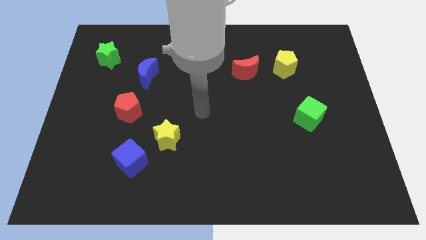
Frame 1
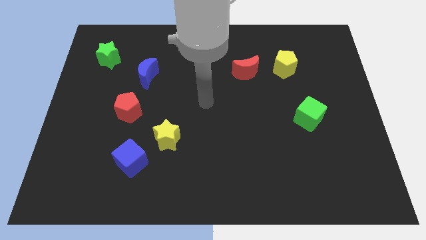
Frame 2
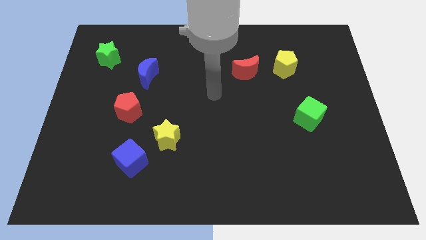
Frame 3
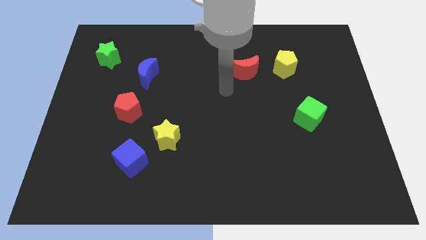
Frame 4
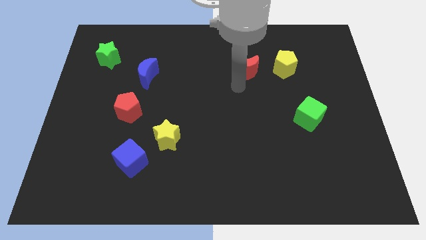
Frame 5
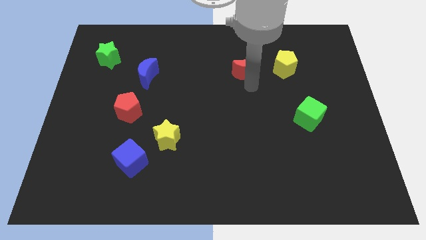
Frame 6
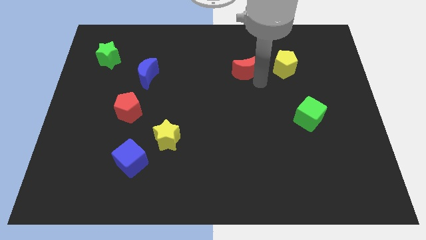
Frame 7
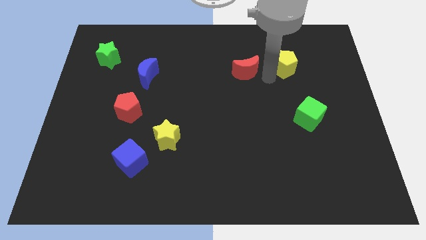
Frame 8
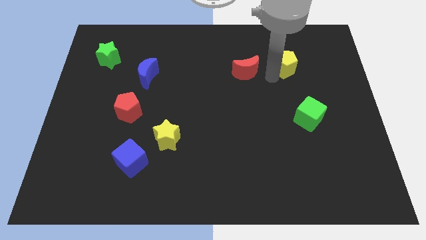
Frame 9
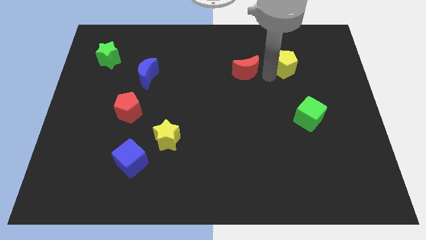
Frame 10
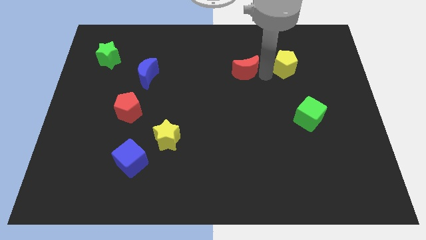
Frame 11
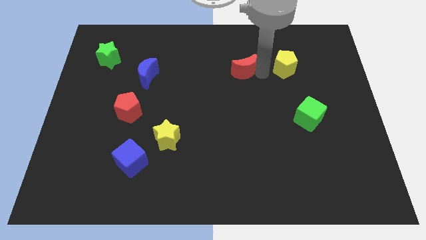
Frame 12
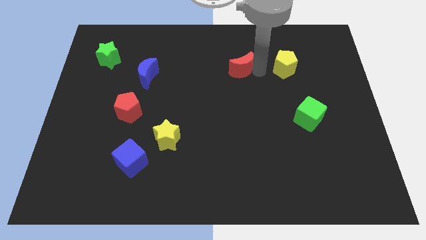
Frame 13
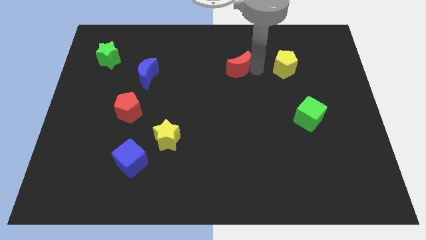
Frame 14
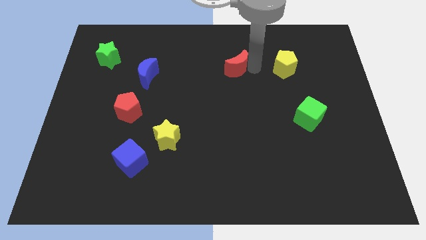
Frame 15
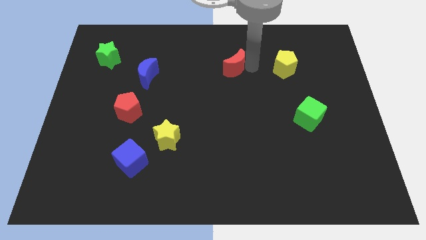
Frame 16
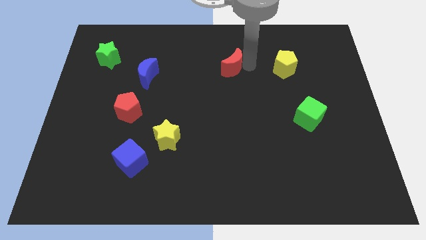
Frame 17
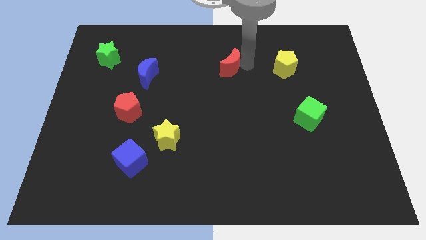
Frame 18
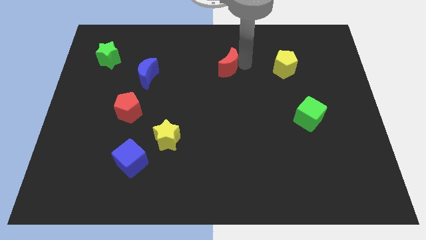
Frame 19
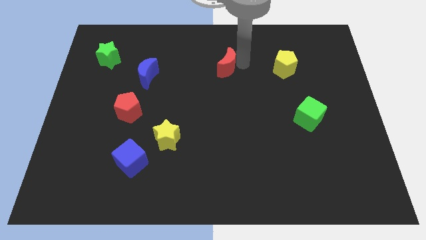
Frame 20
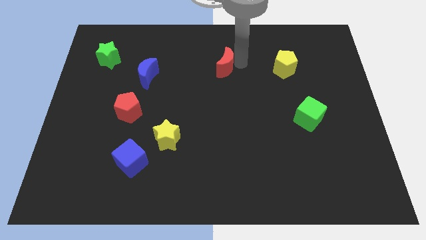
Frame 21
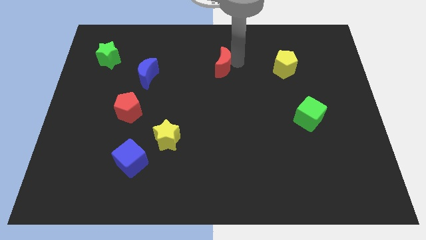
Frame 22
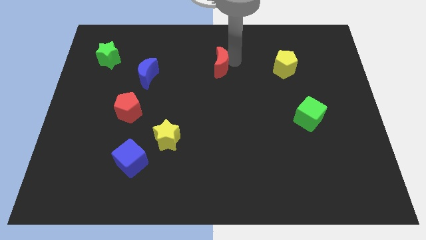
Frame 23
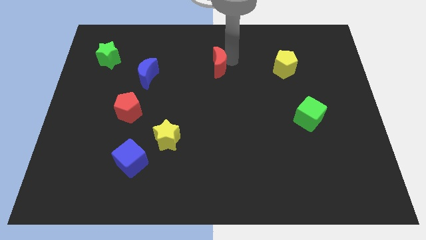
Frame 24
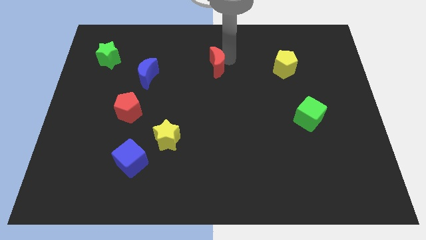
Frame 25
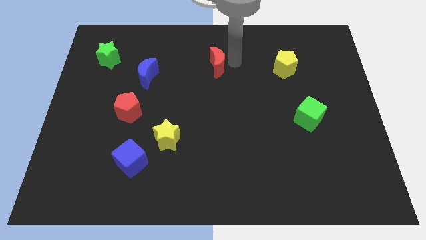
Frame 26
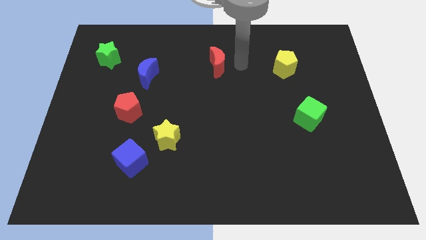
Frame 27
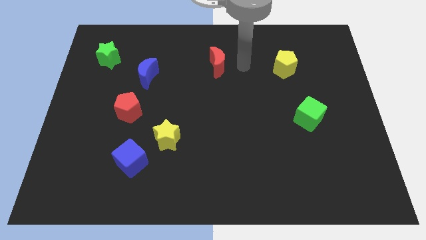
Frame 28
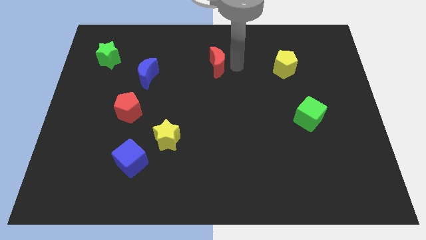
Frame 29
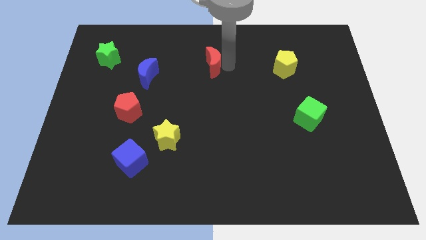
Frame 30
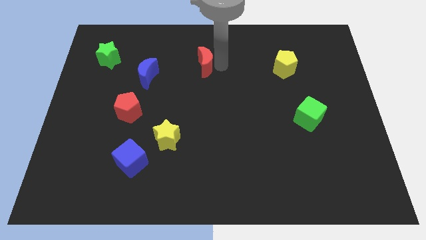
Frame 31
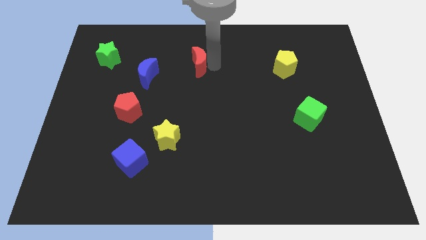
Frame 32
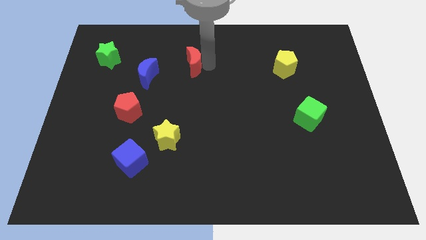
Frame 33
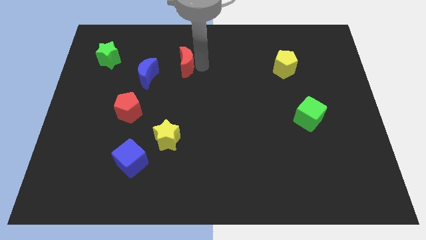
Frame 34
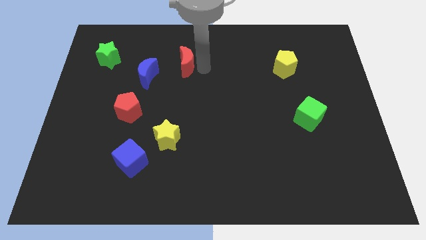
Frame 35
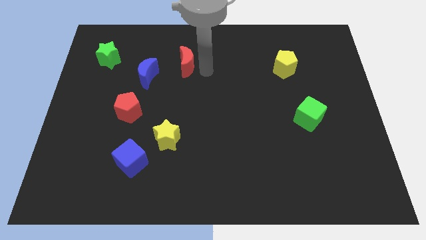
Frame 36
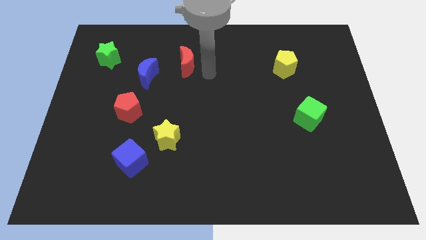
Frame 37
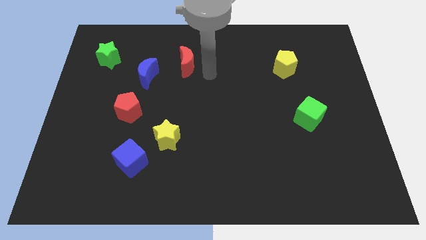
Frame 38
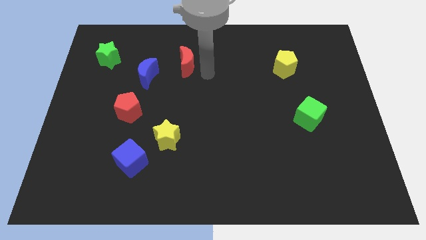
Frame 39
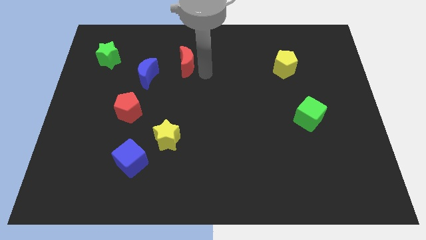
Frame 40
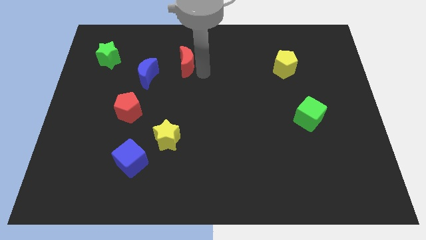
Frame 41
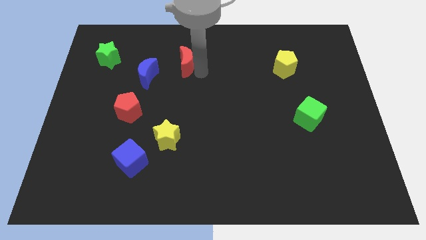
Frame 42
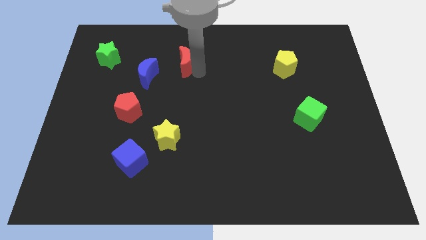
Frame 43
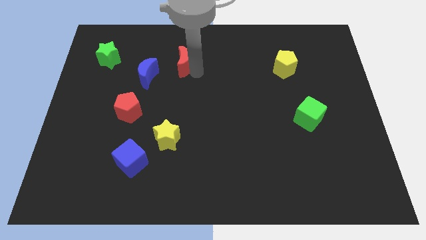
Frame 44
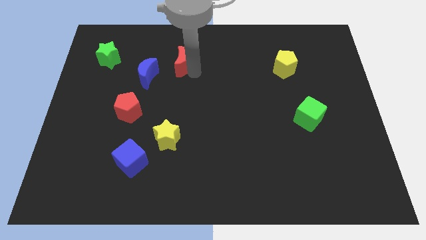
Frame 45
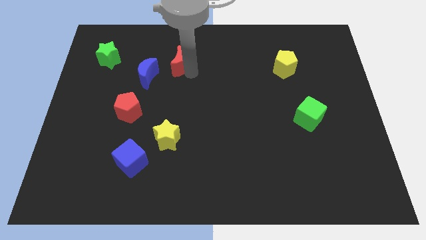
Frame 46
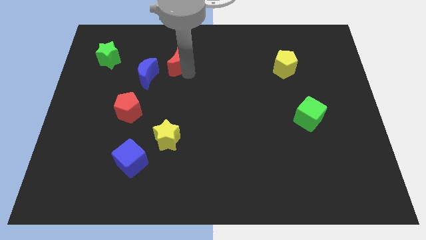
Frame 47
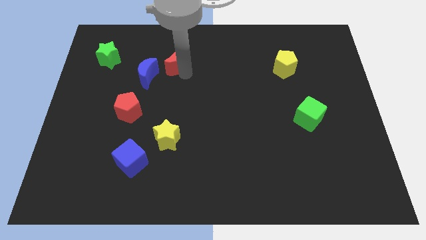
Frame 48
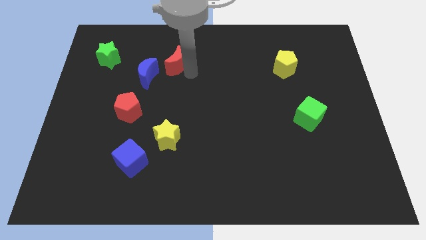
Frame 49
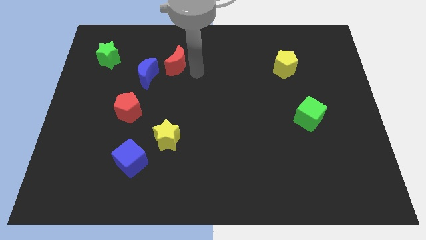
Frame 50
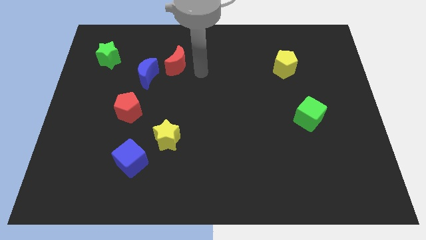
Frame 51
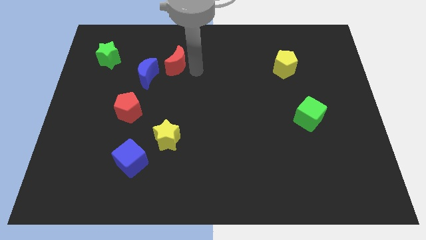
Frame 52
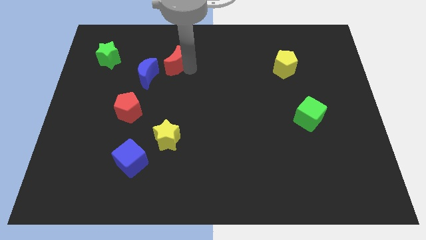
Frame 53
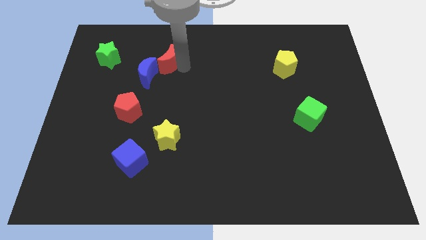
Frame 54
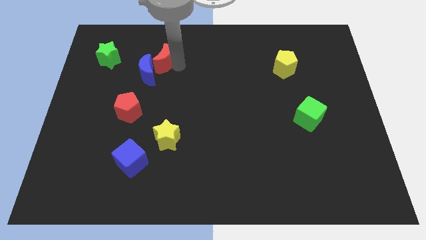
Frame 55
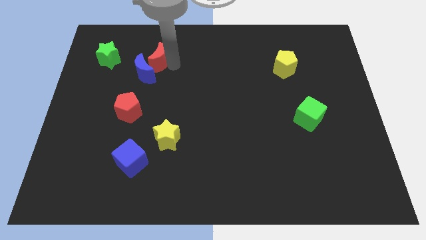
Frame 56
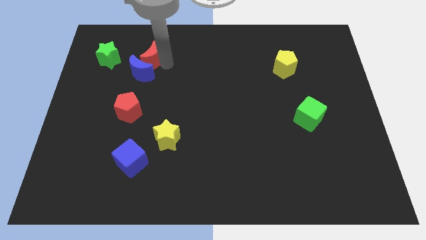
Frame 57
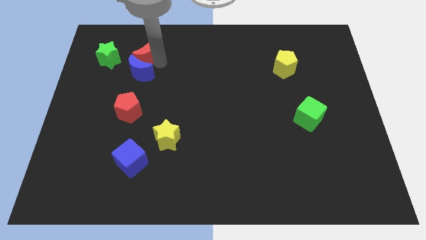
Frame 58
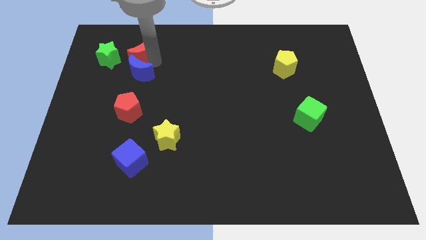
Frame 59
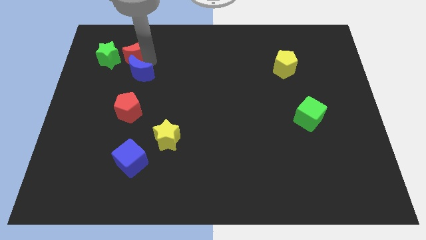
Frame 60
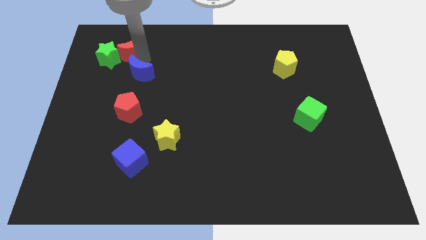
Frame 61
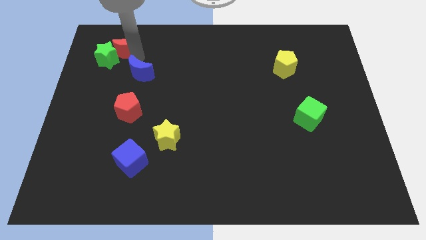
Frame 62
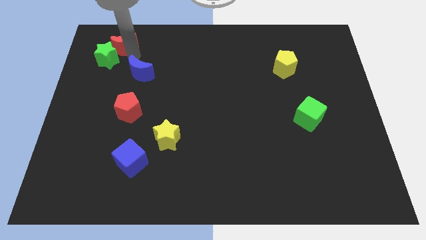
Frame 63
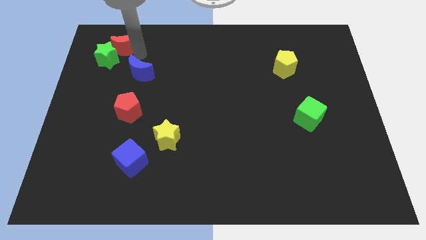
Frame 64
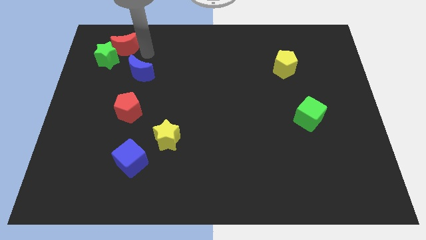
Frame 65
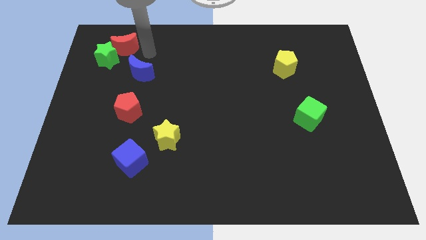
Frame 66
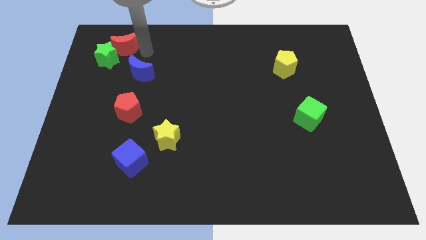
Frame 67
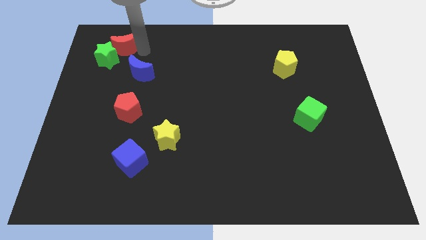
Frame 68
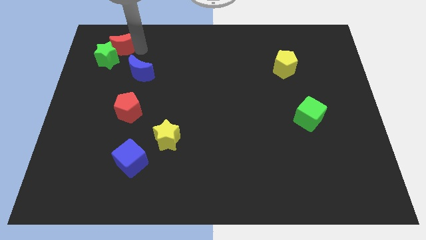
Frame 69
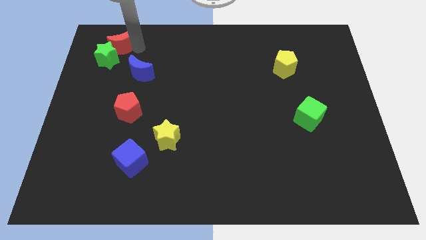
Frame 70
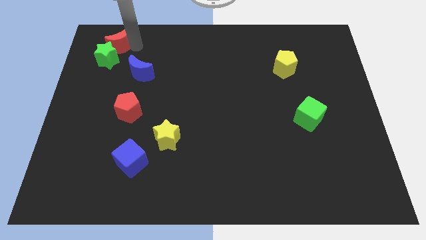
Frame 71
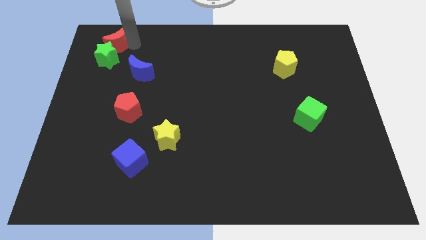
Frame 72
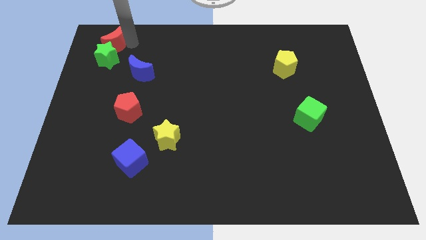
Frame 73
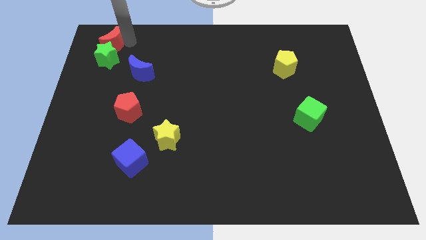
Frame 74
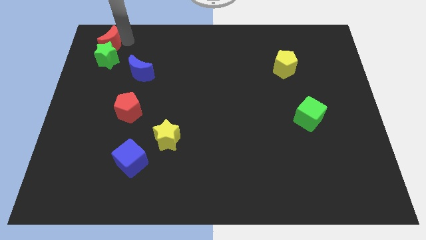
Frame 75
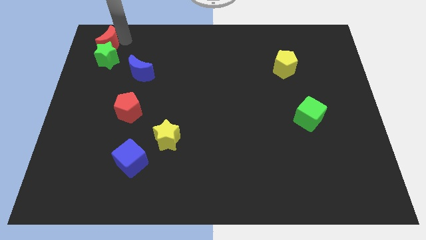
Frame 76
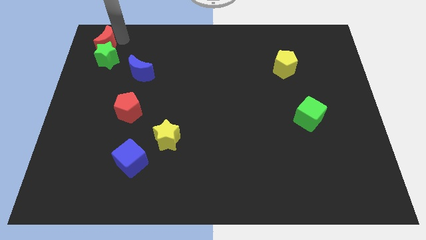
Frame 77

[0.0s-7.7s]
push the red moon to the top left

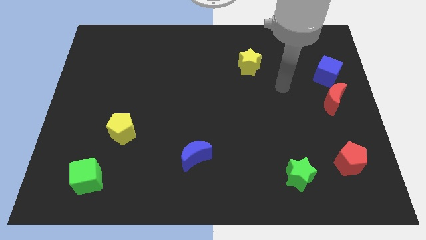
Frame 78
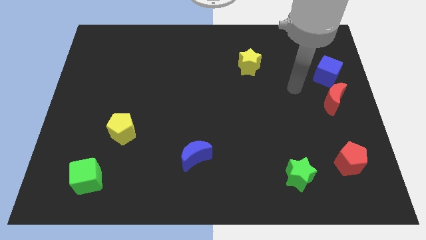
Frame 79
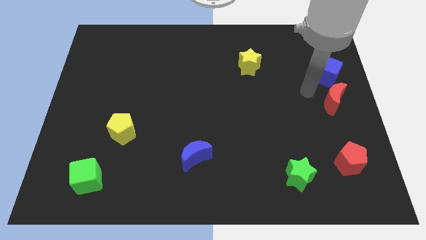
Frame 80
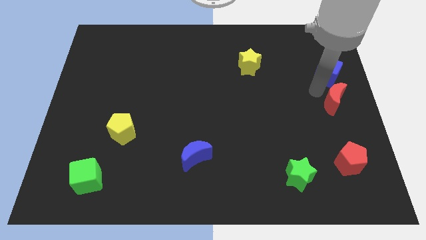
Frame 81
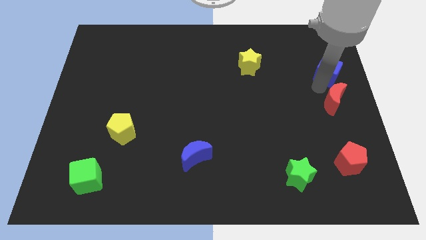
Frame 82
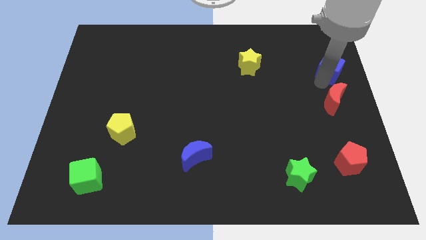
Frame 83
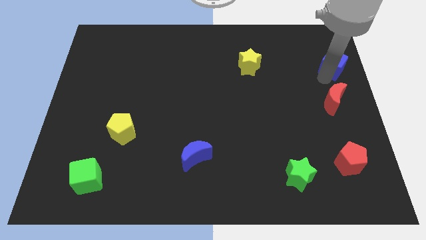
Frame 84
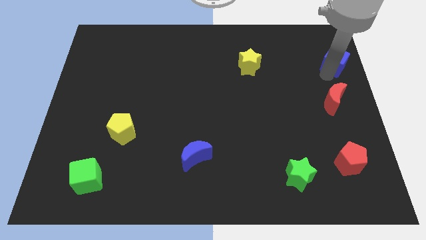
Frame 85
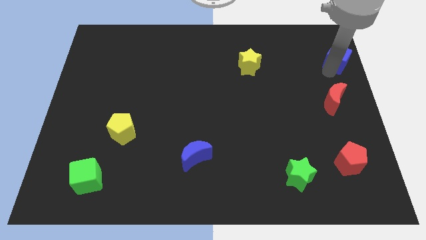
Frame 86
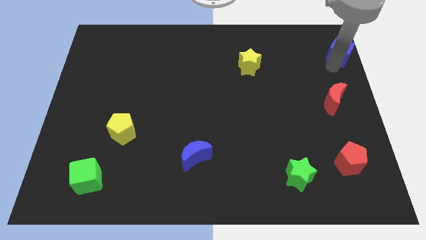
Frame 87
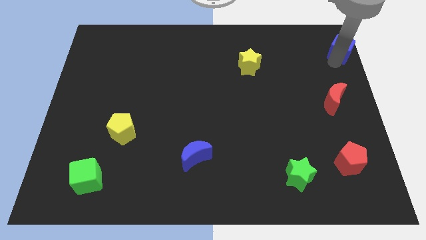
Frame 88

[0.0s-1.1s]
push the blue cube to the top right corner
